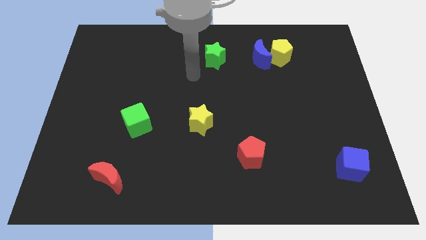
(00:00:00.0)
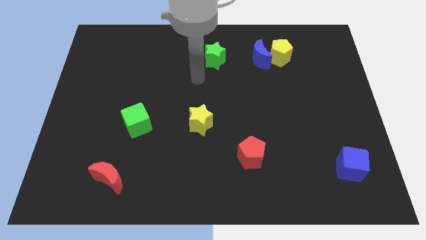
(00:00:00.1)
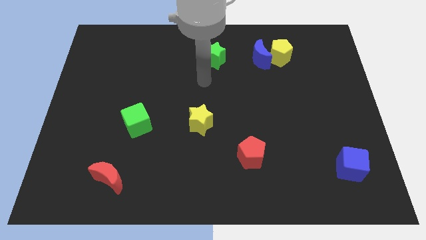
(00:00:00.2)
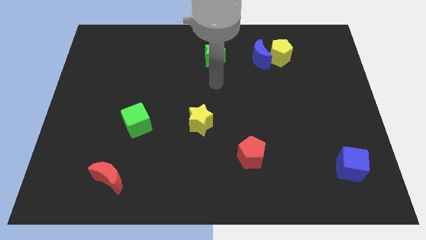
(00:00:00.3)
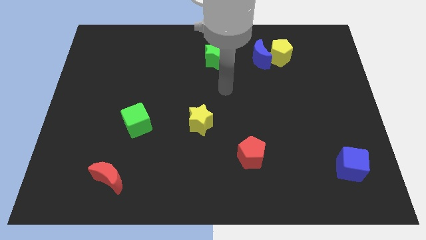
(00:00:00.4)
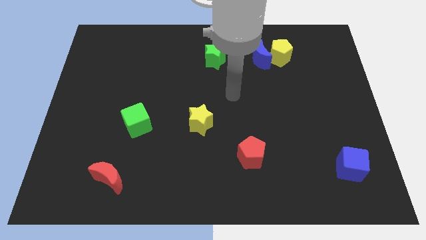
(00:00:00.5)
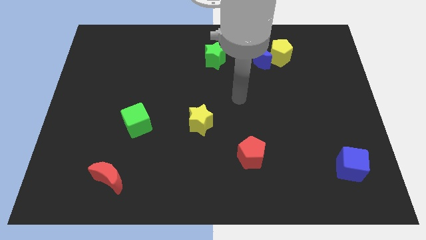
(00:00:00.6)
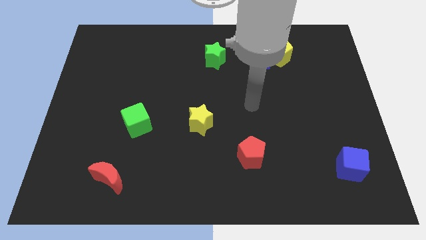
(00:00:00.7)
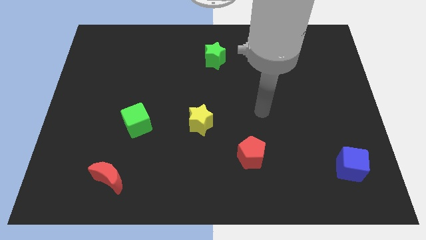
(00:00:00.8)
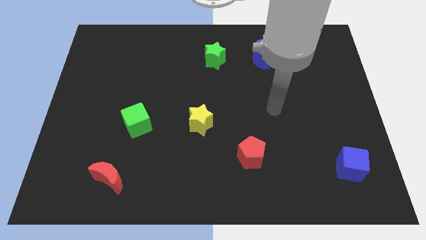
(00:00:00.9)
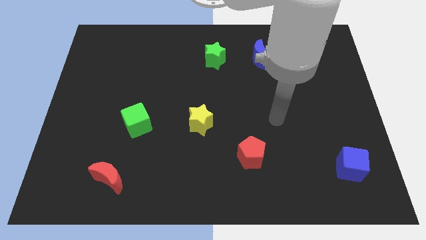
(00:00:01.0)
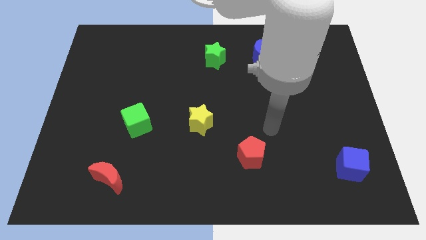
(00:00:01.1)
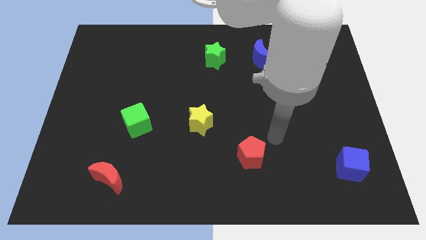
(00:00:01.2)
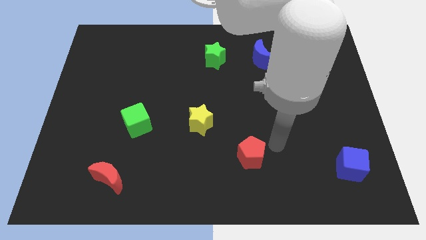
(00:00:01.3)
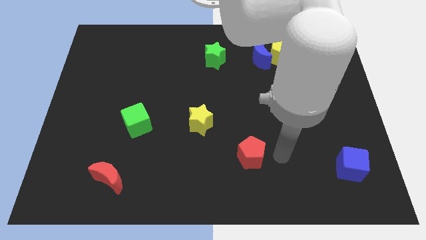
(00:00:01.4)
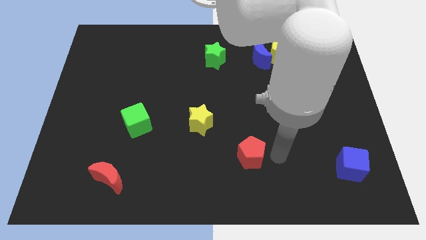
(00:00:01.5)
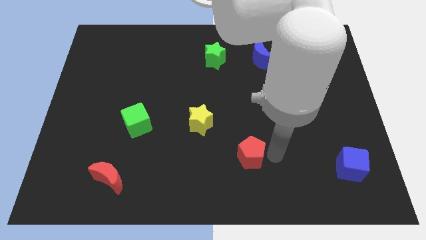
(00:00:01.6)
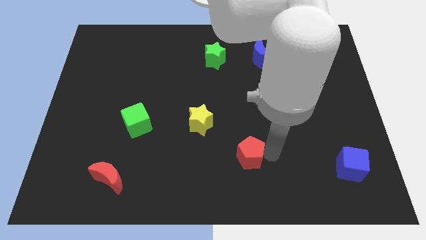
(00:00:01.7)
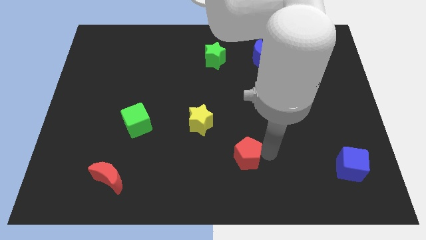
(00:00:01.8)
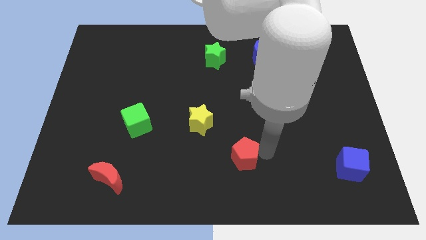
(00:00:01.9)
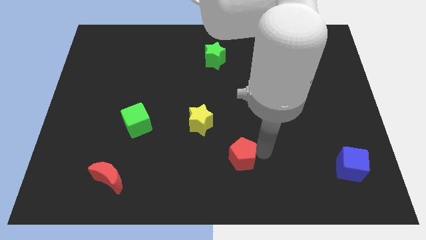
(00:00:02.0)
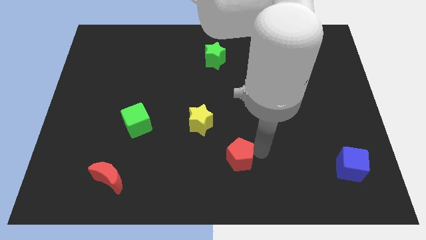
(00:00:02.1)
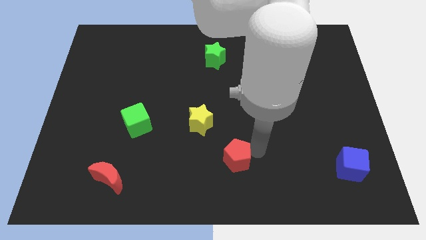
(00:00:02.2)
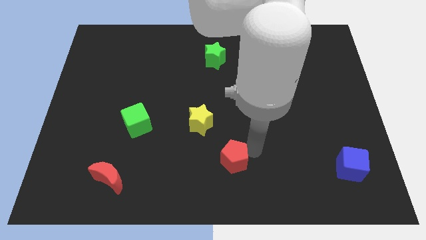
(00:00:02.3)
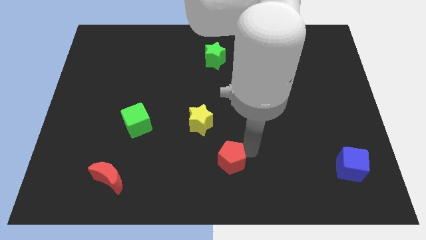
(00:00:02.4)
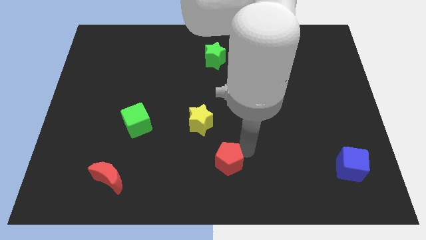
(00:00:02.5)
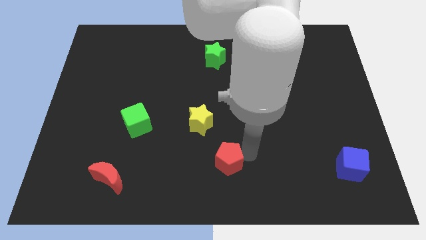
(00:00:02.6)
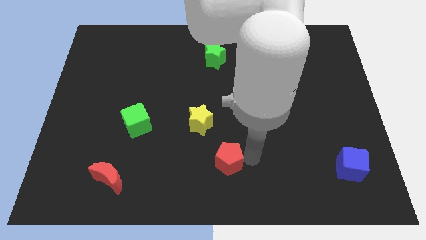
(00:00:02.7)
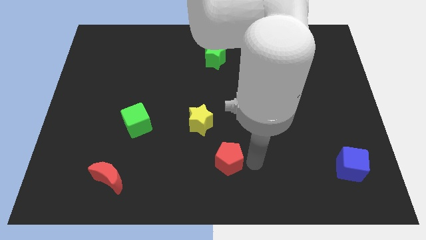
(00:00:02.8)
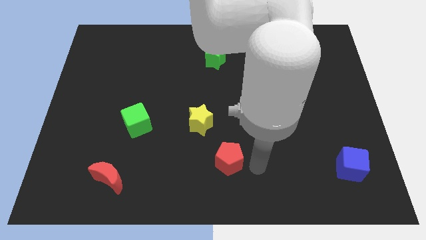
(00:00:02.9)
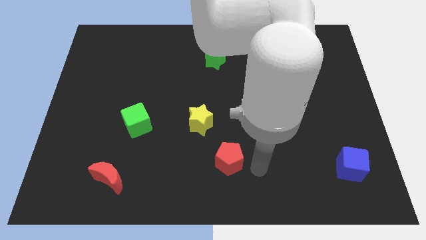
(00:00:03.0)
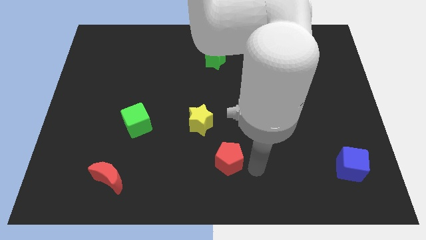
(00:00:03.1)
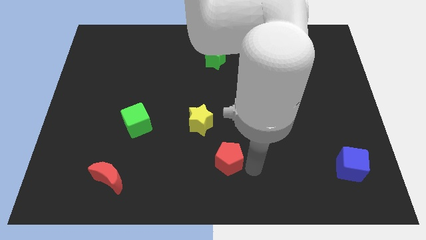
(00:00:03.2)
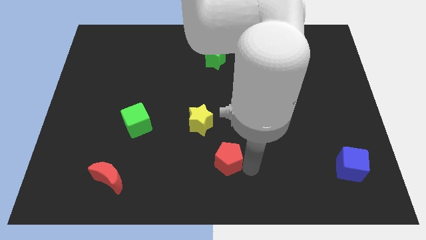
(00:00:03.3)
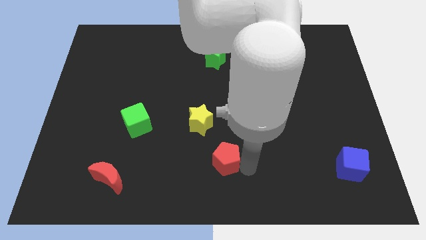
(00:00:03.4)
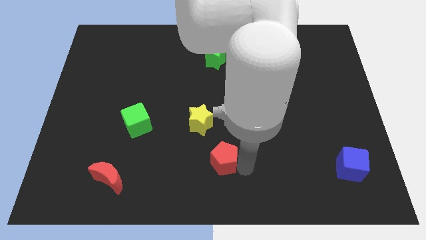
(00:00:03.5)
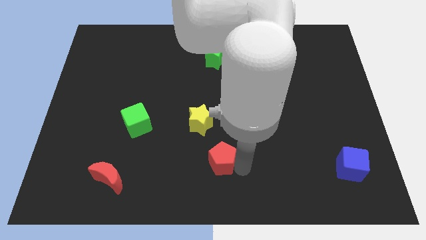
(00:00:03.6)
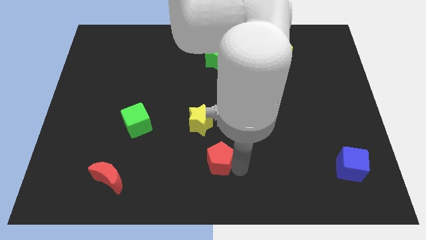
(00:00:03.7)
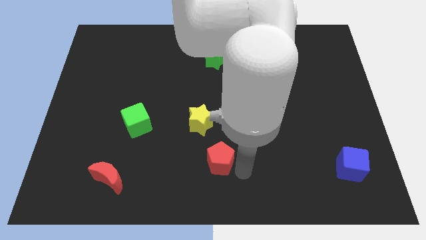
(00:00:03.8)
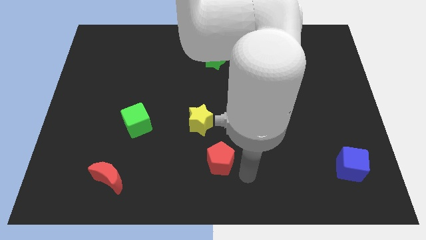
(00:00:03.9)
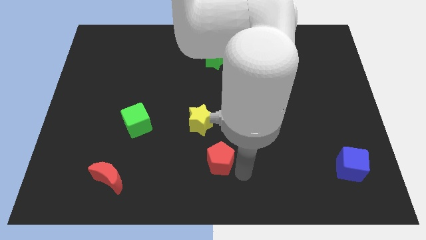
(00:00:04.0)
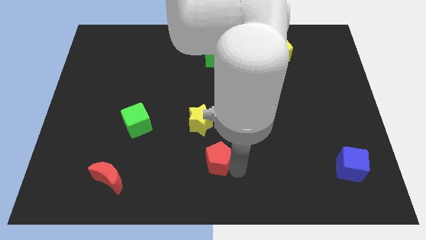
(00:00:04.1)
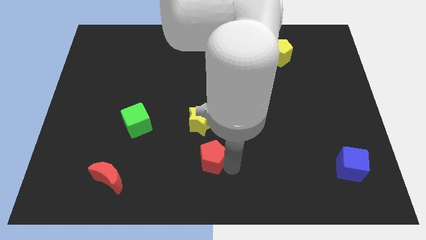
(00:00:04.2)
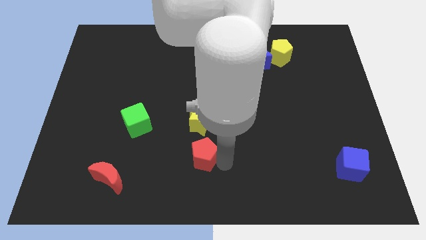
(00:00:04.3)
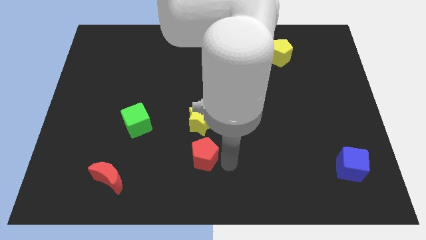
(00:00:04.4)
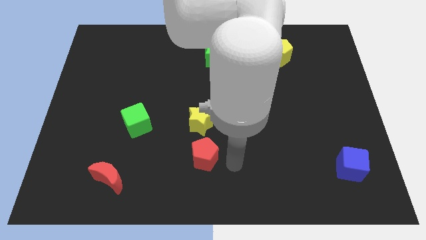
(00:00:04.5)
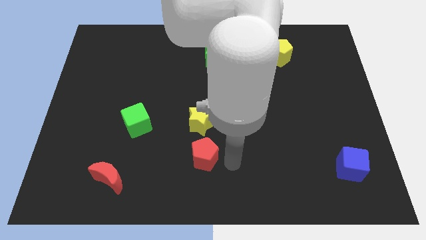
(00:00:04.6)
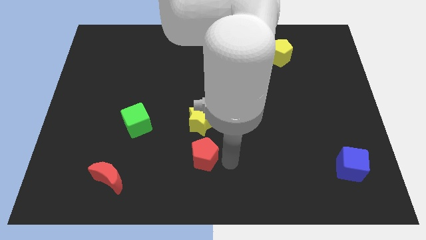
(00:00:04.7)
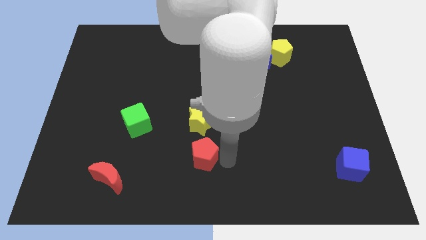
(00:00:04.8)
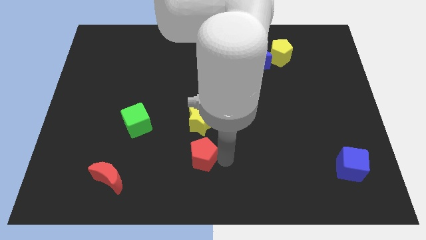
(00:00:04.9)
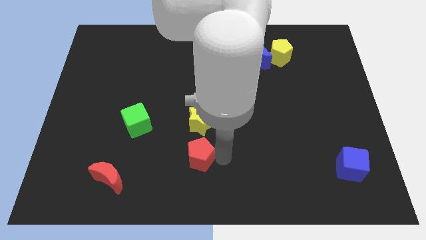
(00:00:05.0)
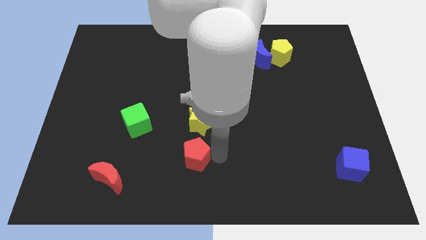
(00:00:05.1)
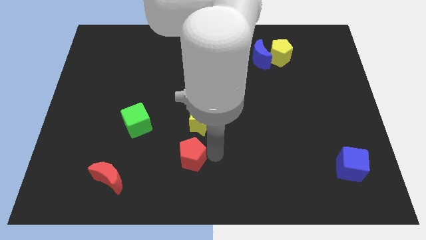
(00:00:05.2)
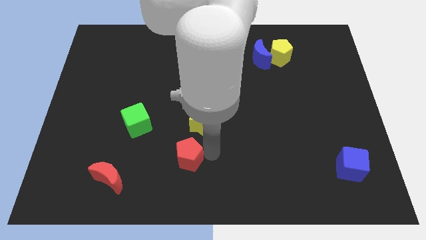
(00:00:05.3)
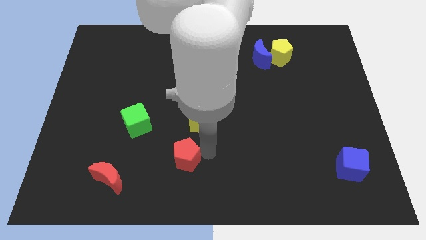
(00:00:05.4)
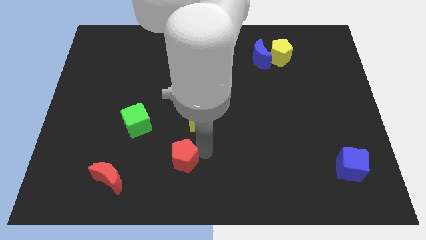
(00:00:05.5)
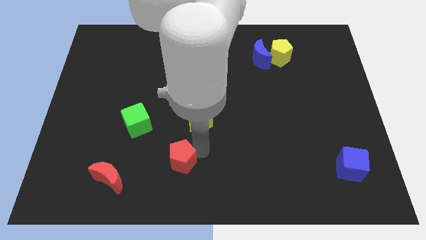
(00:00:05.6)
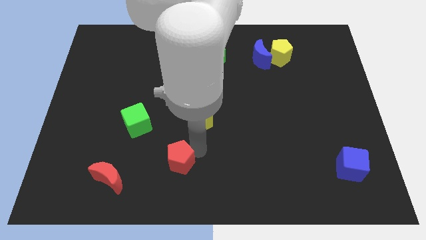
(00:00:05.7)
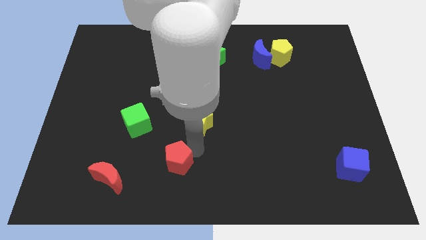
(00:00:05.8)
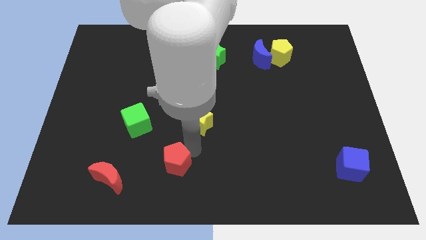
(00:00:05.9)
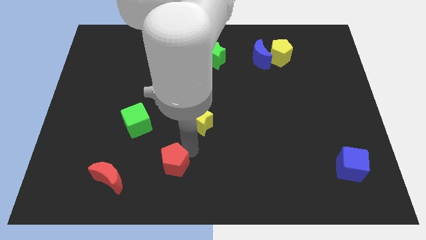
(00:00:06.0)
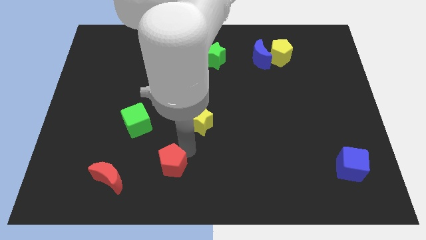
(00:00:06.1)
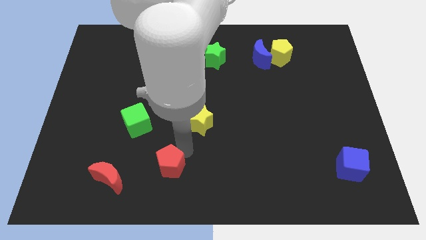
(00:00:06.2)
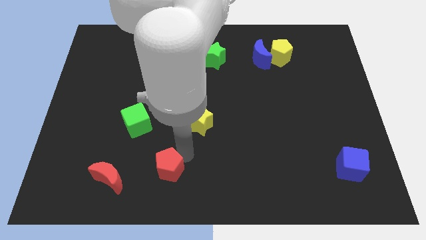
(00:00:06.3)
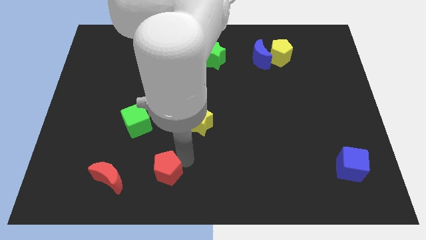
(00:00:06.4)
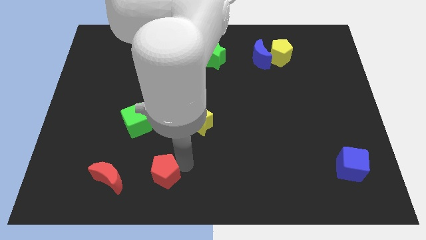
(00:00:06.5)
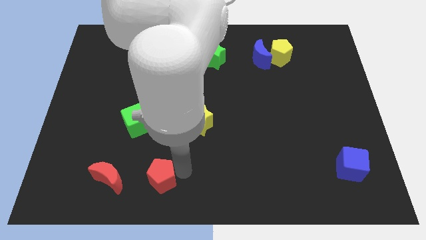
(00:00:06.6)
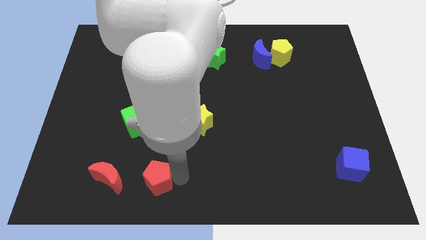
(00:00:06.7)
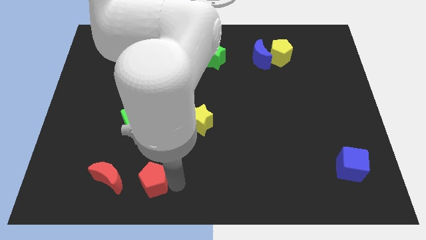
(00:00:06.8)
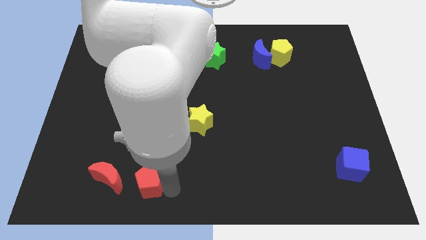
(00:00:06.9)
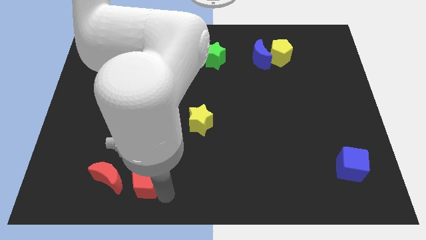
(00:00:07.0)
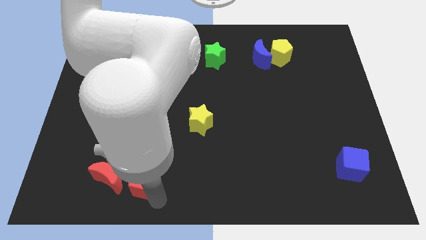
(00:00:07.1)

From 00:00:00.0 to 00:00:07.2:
push the red pentagon to the left

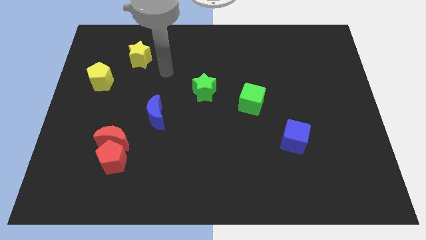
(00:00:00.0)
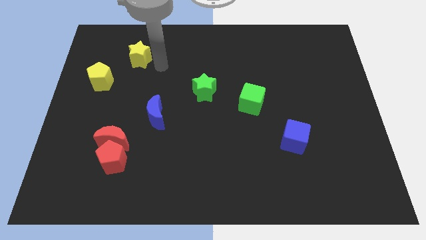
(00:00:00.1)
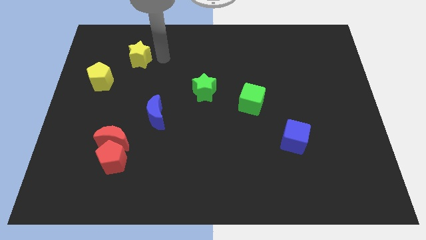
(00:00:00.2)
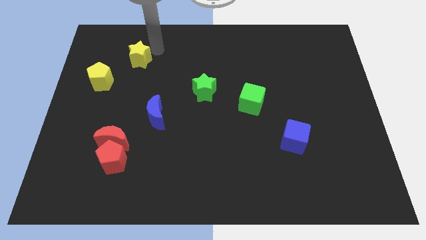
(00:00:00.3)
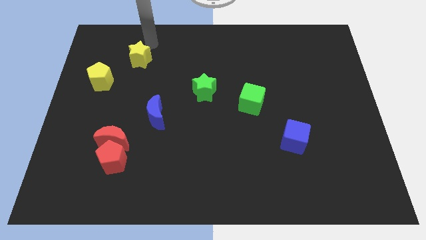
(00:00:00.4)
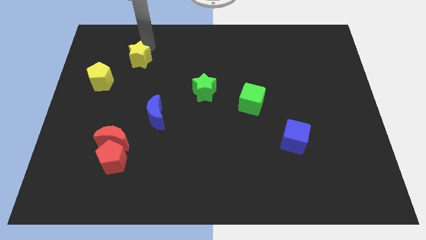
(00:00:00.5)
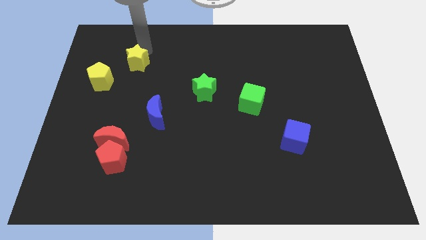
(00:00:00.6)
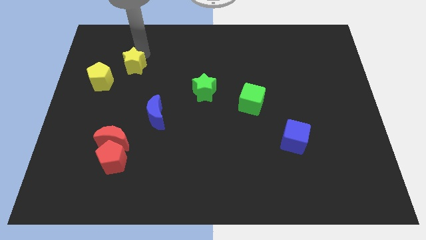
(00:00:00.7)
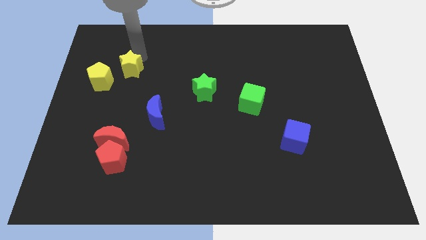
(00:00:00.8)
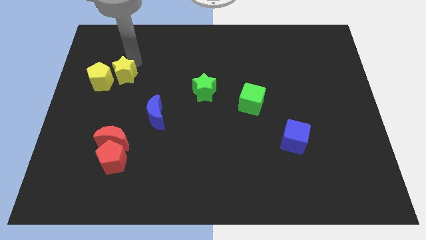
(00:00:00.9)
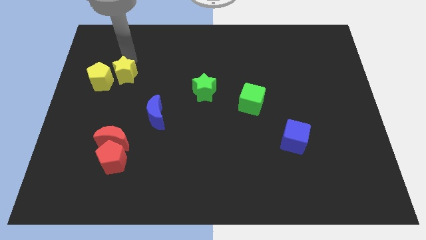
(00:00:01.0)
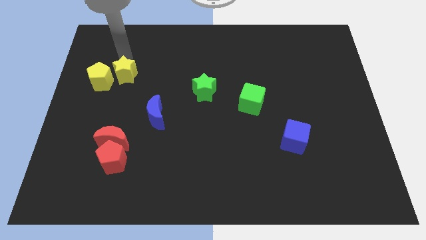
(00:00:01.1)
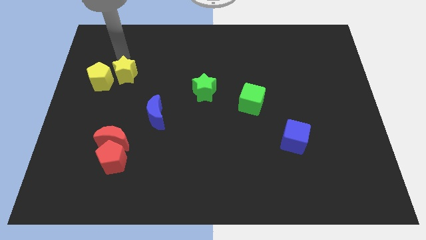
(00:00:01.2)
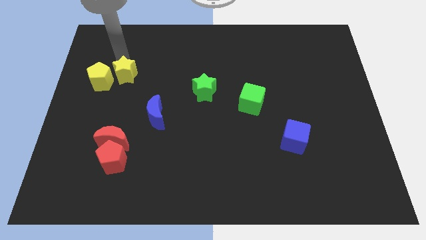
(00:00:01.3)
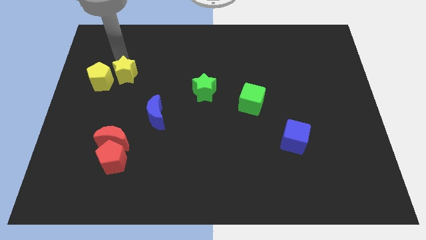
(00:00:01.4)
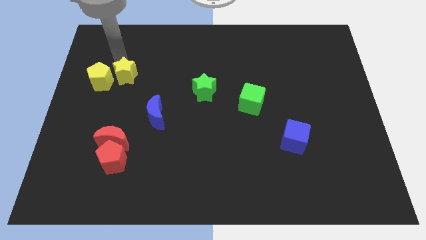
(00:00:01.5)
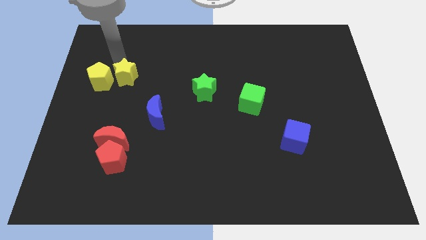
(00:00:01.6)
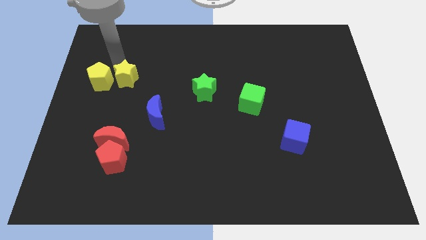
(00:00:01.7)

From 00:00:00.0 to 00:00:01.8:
slide the yellow star a little down
